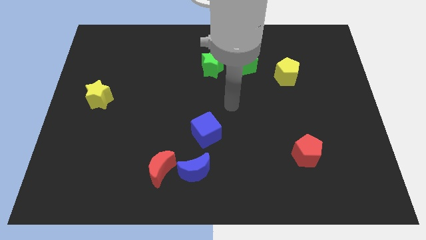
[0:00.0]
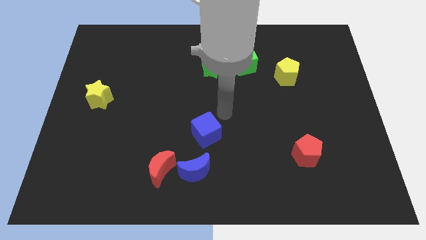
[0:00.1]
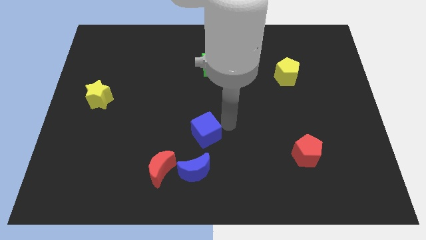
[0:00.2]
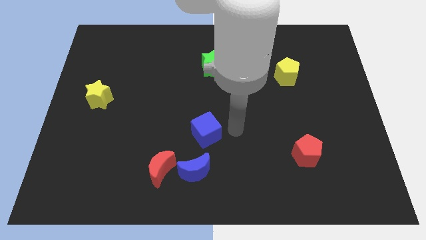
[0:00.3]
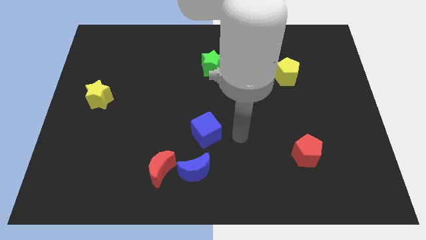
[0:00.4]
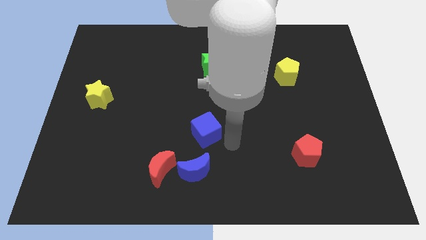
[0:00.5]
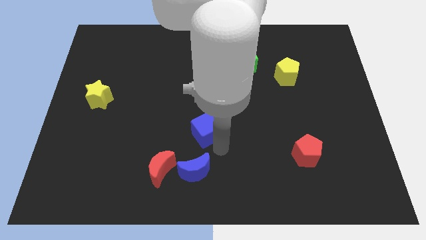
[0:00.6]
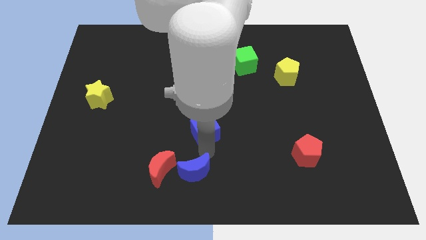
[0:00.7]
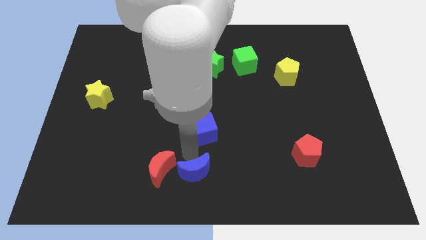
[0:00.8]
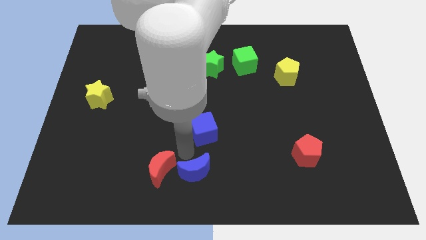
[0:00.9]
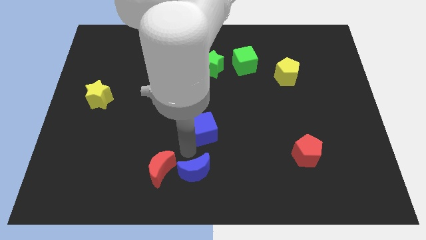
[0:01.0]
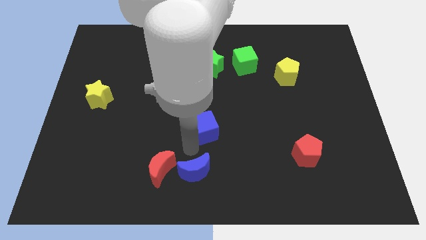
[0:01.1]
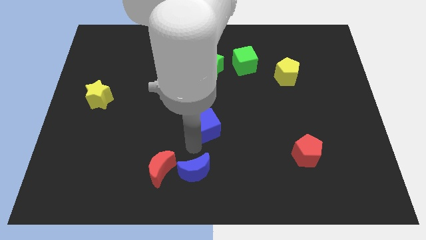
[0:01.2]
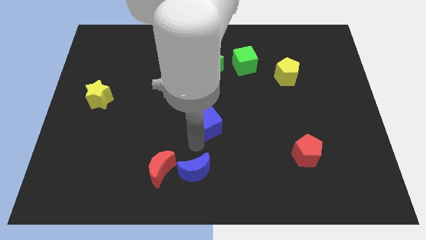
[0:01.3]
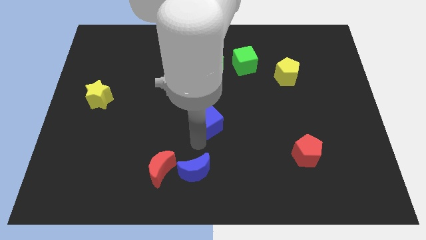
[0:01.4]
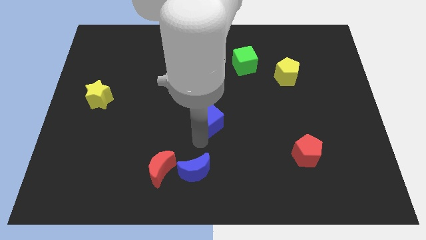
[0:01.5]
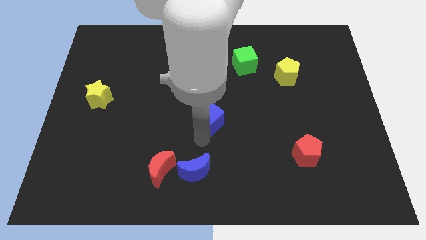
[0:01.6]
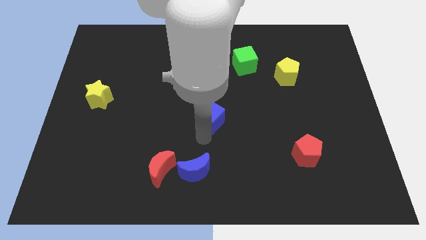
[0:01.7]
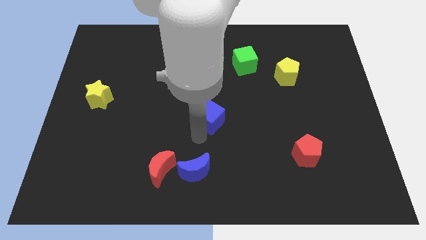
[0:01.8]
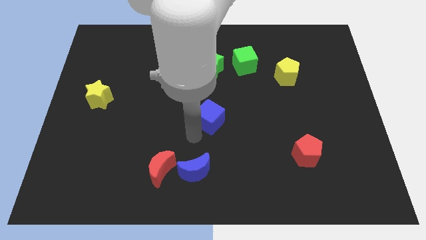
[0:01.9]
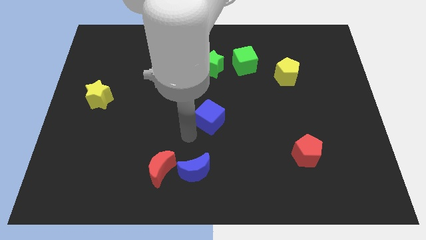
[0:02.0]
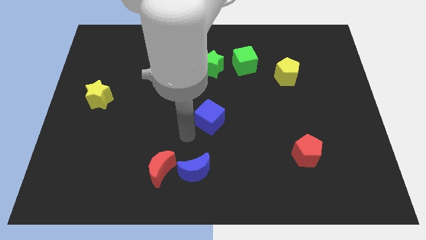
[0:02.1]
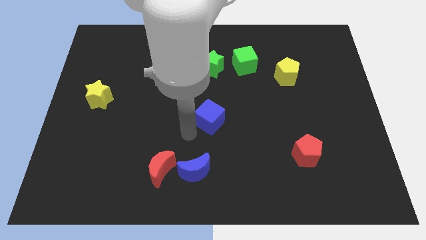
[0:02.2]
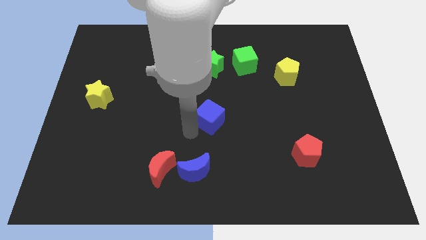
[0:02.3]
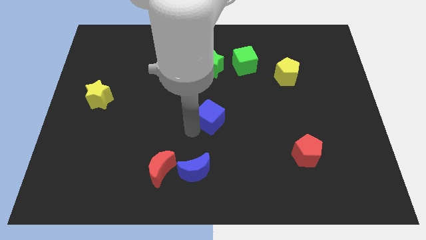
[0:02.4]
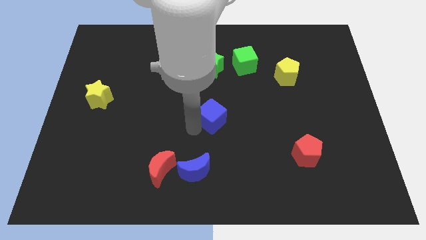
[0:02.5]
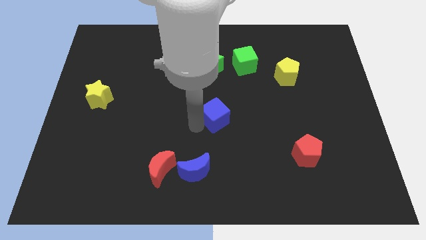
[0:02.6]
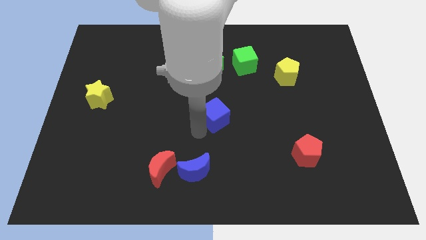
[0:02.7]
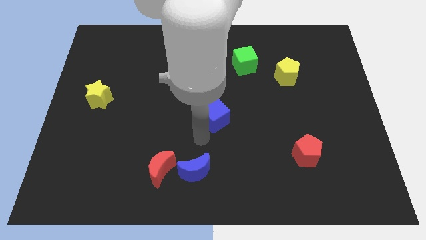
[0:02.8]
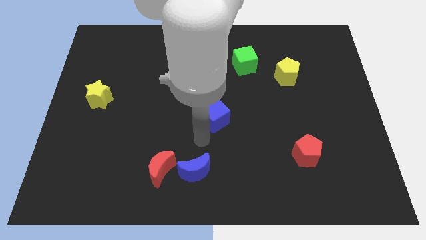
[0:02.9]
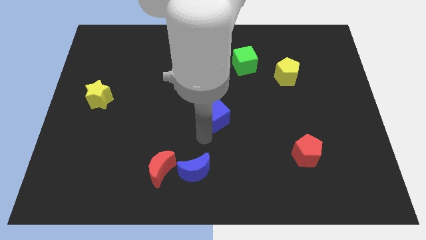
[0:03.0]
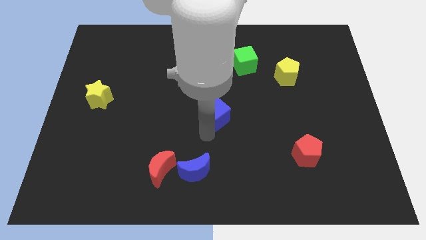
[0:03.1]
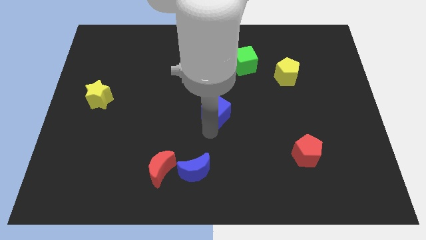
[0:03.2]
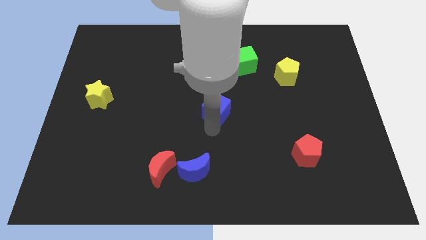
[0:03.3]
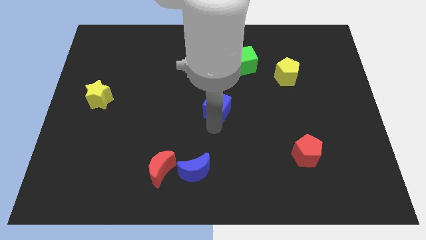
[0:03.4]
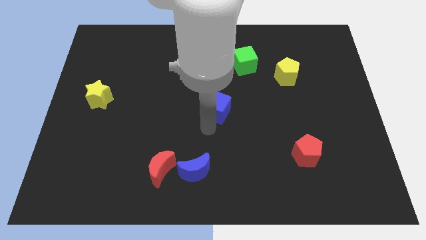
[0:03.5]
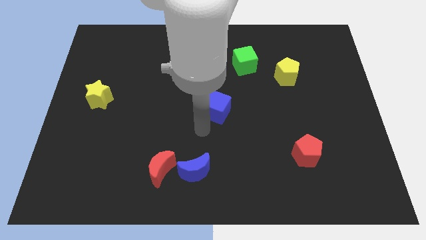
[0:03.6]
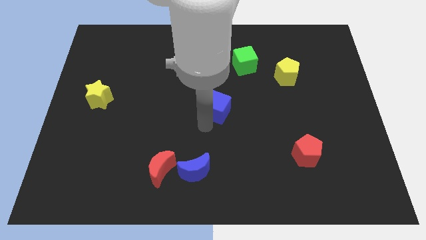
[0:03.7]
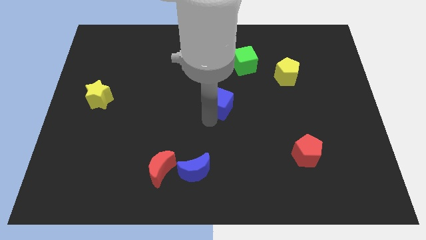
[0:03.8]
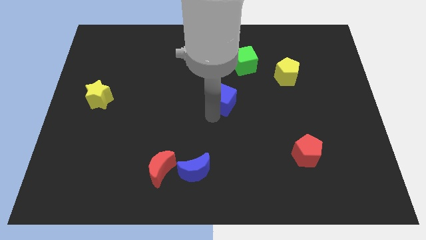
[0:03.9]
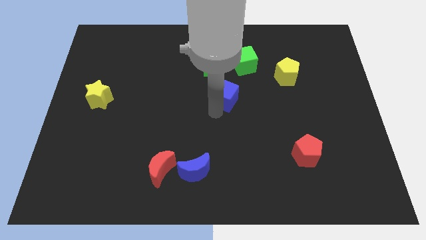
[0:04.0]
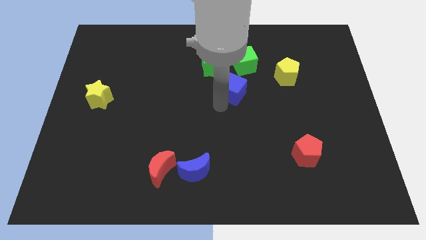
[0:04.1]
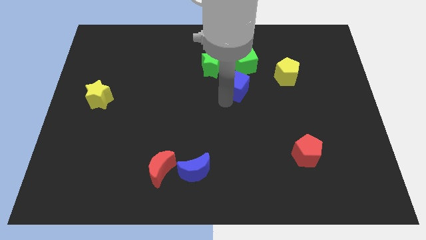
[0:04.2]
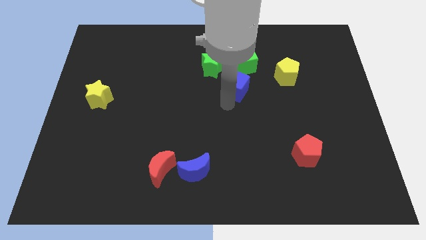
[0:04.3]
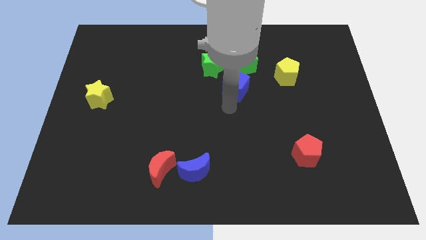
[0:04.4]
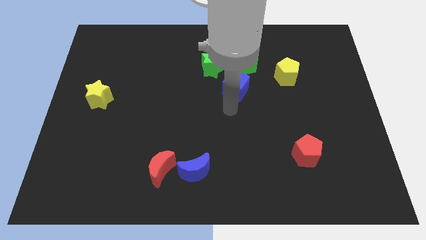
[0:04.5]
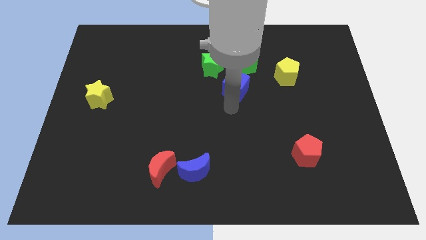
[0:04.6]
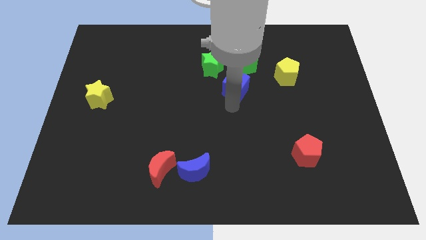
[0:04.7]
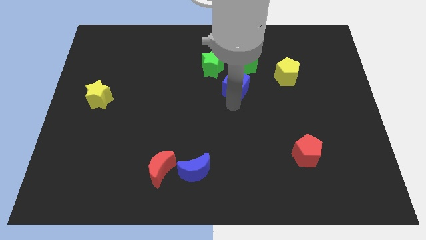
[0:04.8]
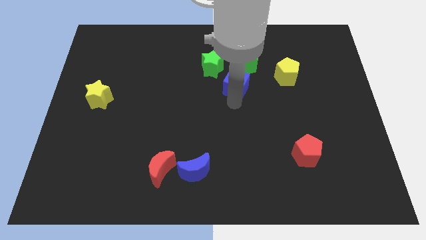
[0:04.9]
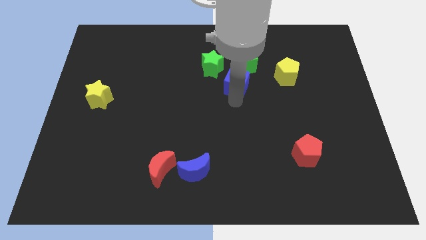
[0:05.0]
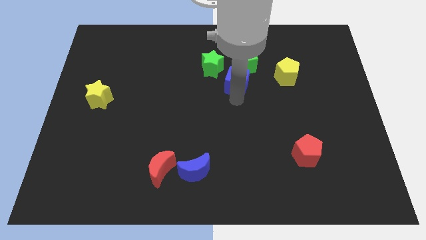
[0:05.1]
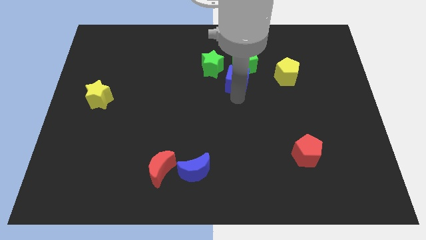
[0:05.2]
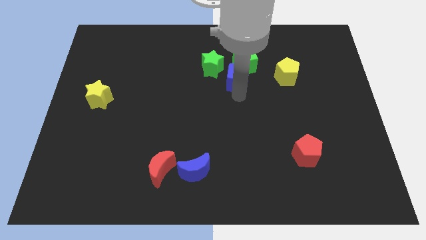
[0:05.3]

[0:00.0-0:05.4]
push the blue cube close to the green cube

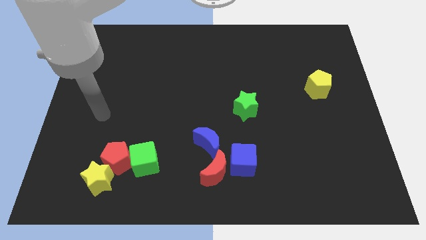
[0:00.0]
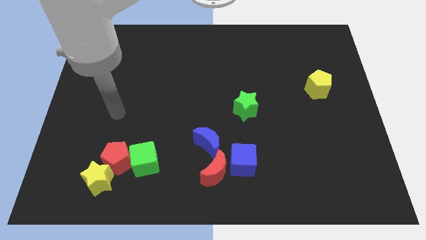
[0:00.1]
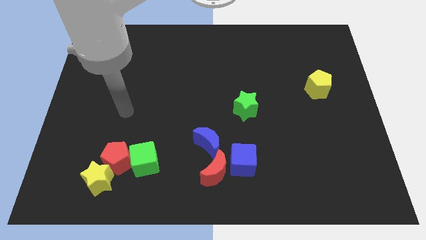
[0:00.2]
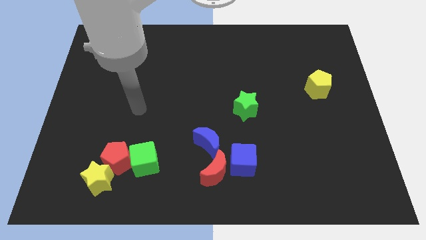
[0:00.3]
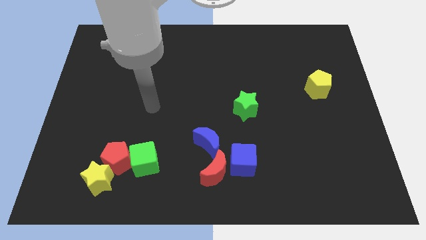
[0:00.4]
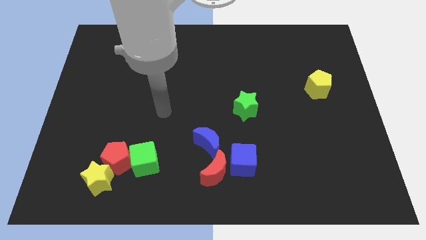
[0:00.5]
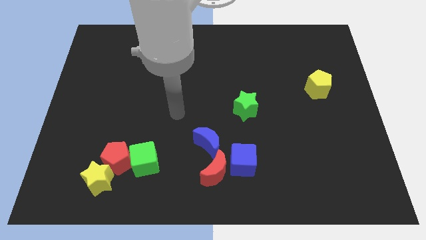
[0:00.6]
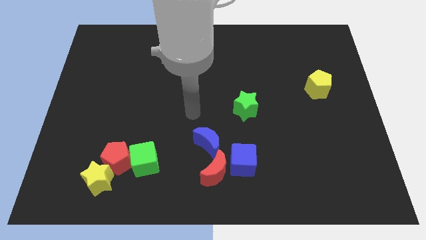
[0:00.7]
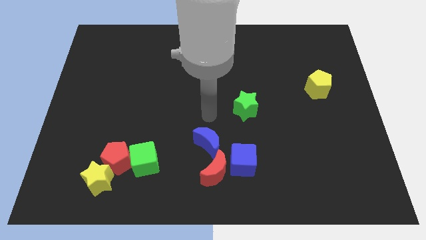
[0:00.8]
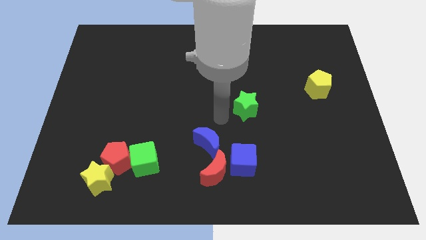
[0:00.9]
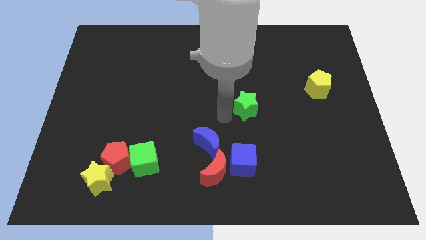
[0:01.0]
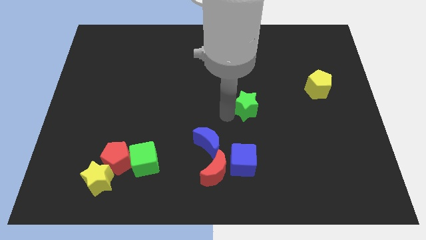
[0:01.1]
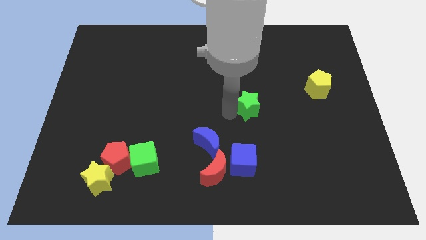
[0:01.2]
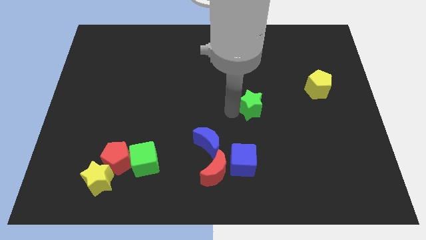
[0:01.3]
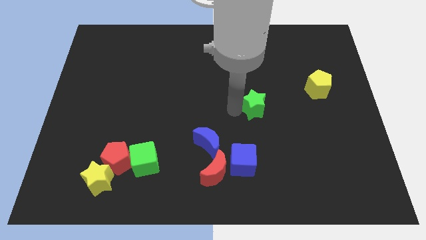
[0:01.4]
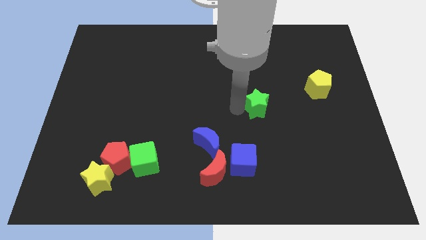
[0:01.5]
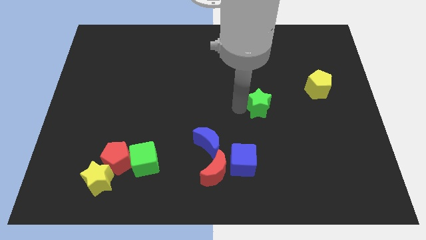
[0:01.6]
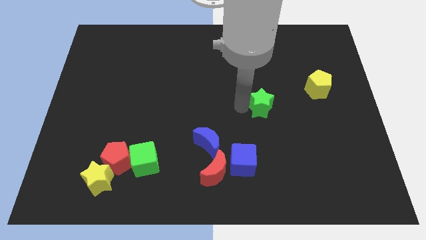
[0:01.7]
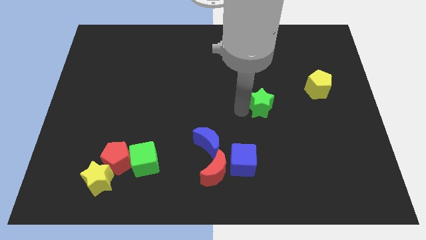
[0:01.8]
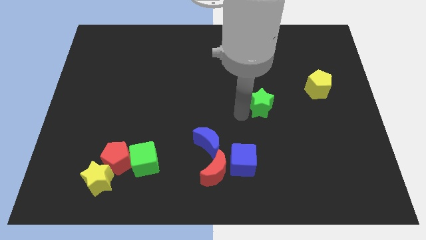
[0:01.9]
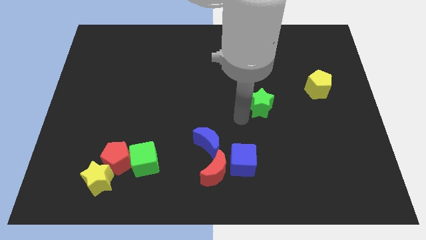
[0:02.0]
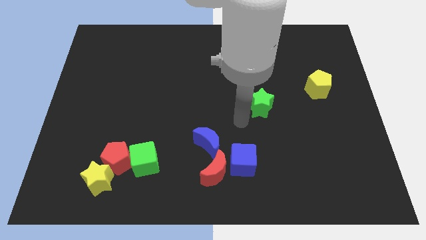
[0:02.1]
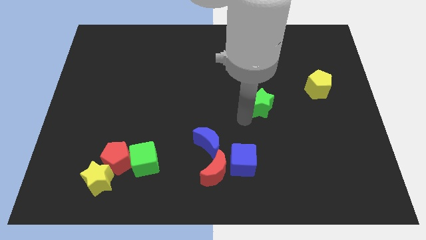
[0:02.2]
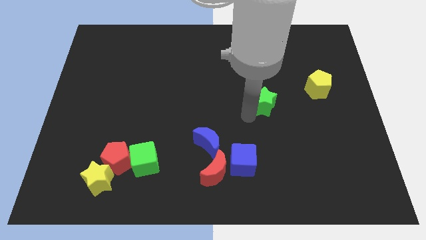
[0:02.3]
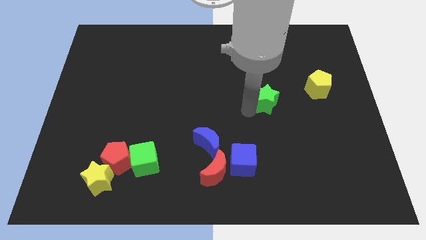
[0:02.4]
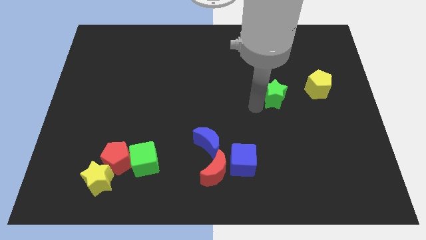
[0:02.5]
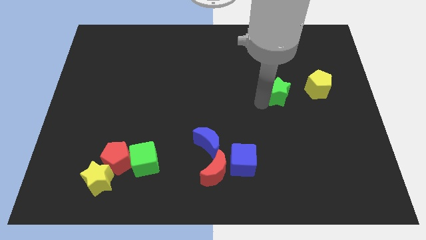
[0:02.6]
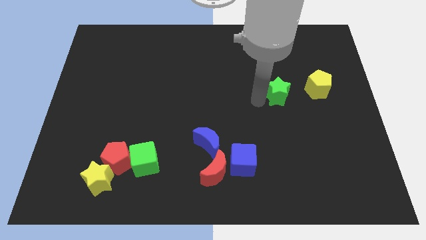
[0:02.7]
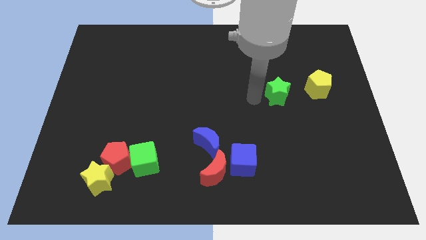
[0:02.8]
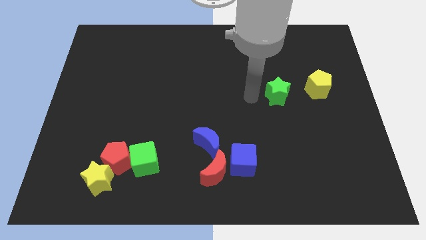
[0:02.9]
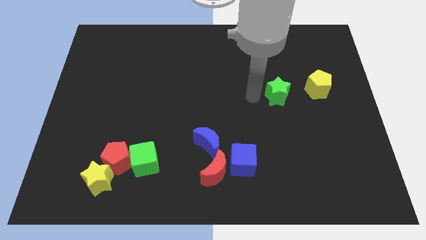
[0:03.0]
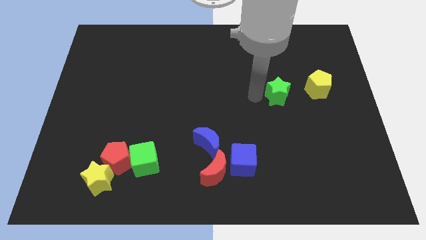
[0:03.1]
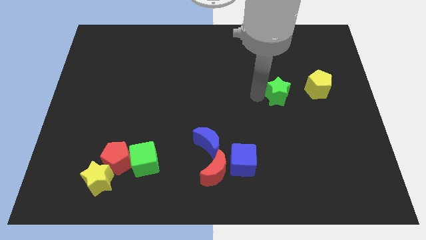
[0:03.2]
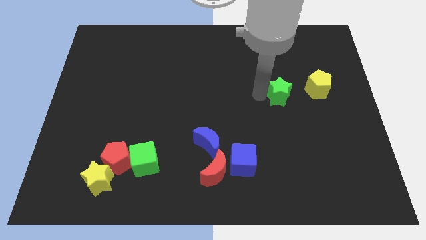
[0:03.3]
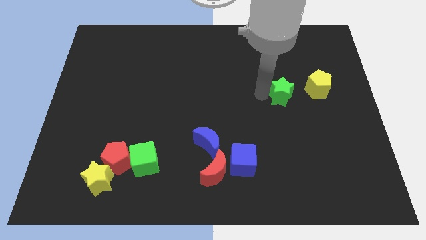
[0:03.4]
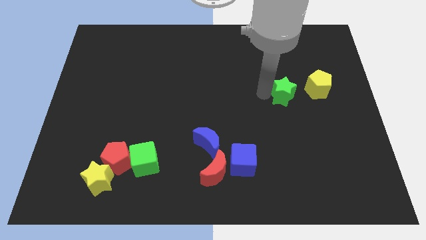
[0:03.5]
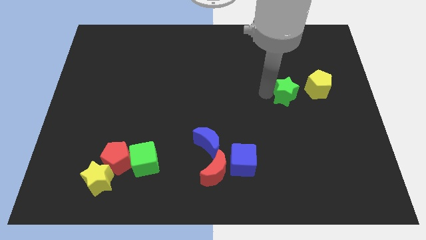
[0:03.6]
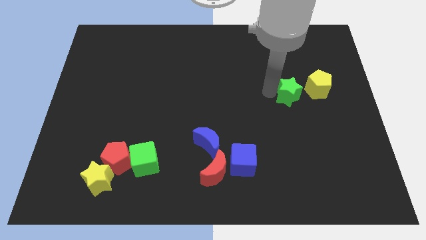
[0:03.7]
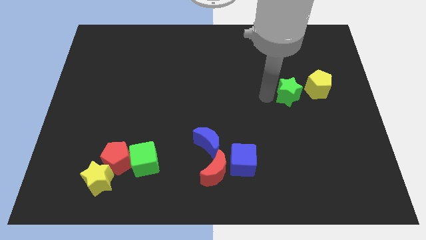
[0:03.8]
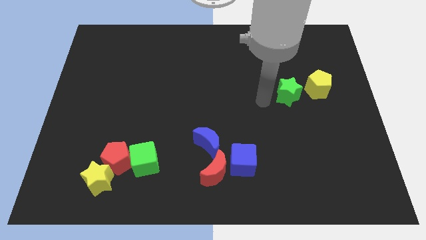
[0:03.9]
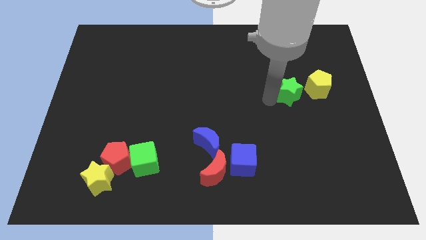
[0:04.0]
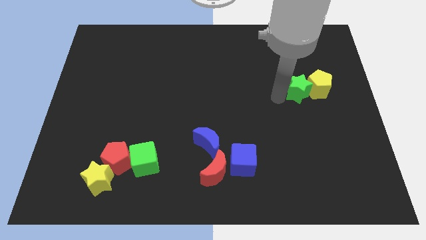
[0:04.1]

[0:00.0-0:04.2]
put the green star towards the yellow pentagon
